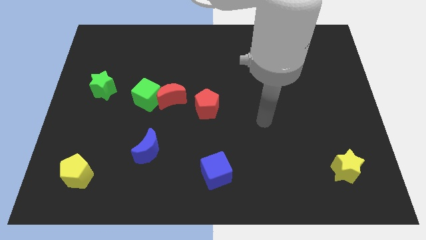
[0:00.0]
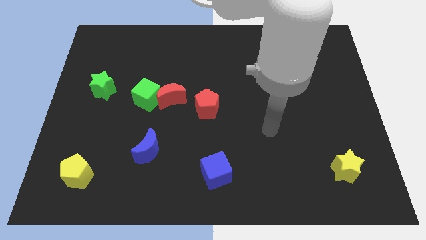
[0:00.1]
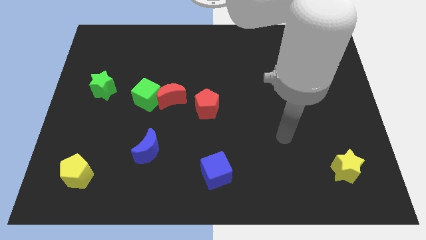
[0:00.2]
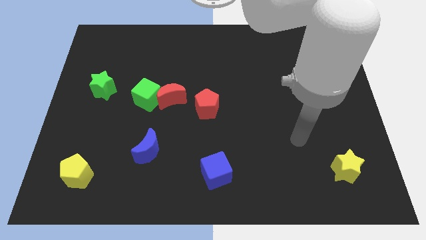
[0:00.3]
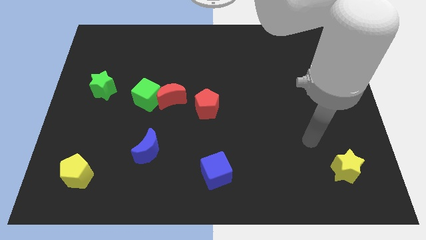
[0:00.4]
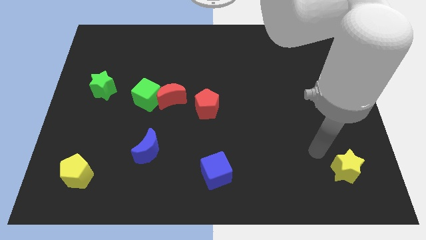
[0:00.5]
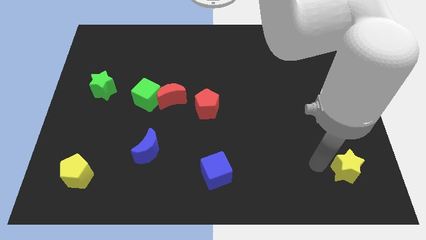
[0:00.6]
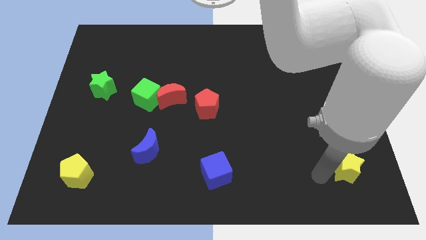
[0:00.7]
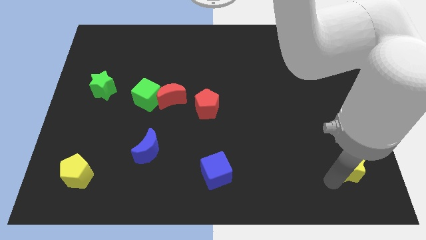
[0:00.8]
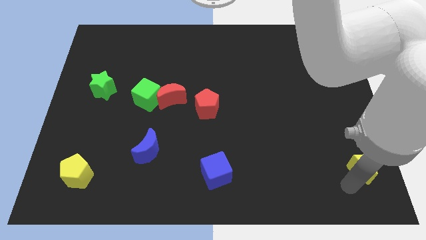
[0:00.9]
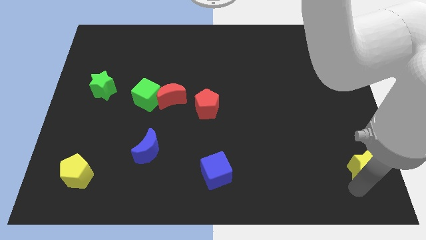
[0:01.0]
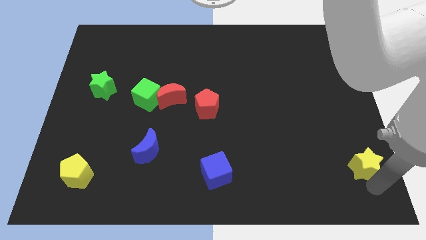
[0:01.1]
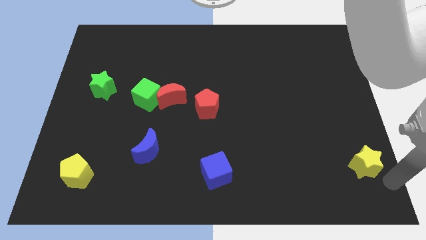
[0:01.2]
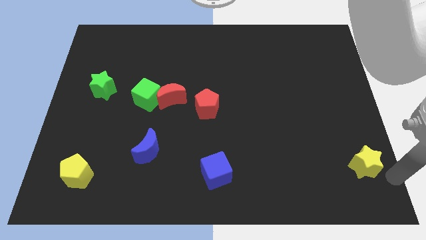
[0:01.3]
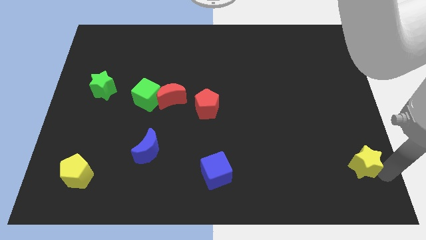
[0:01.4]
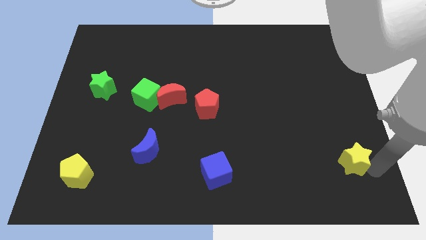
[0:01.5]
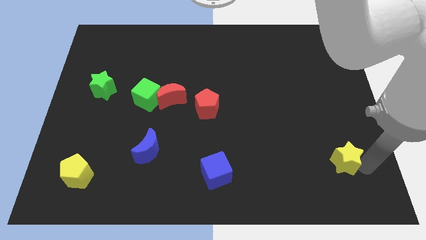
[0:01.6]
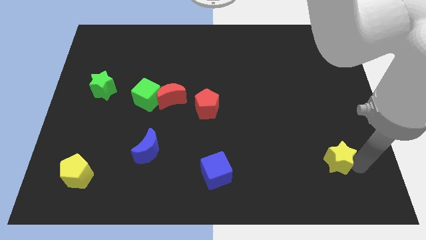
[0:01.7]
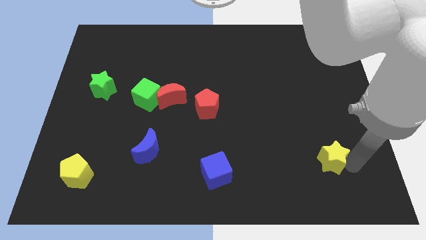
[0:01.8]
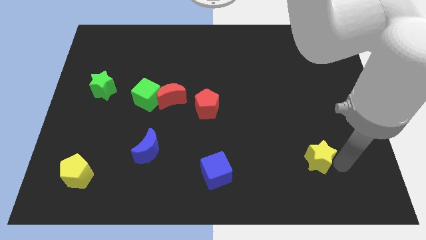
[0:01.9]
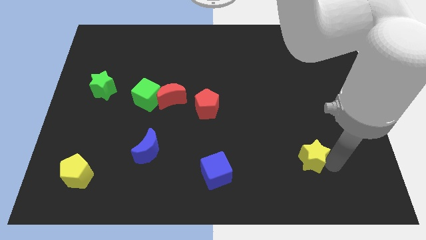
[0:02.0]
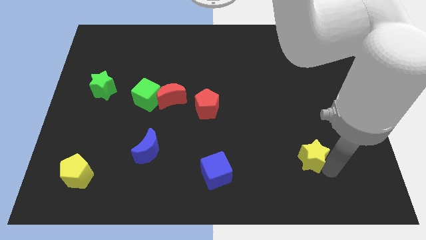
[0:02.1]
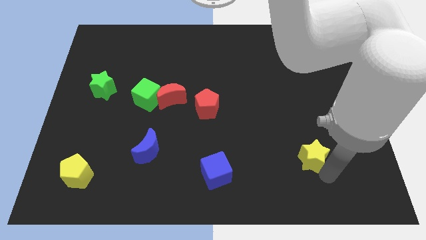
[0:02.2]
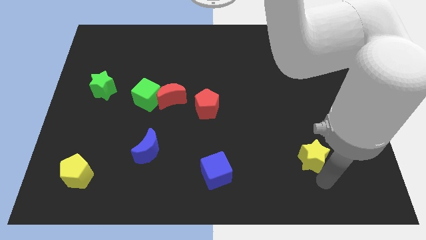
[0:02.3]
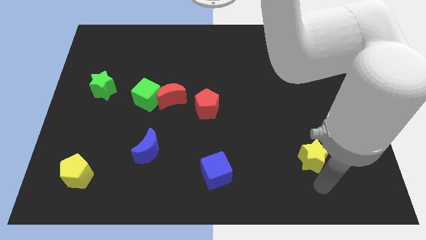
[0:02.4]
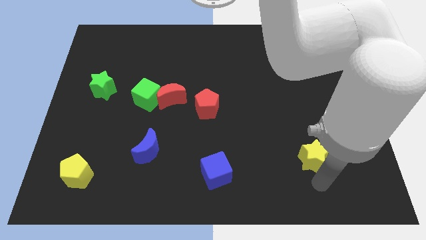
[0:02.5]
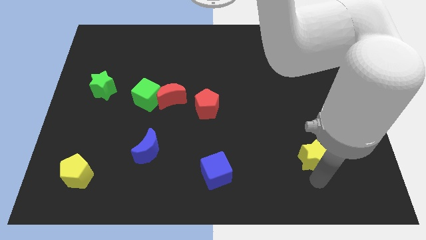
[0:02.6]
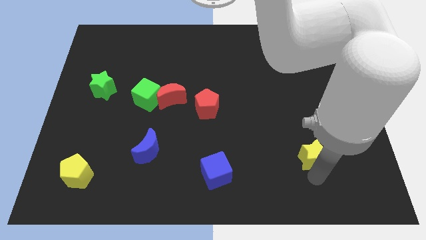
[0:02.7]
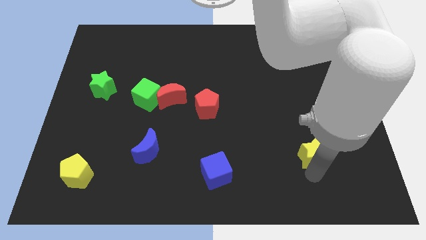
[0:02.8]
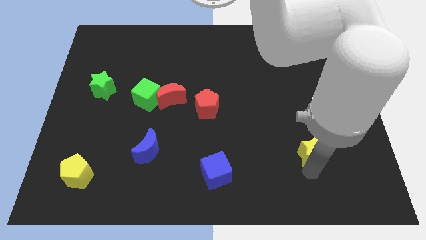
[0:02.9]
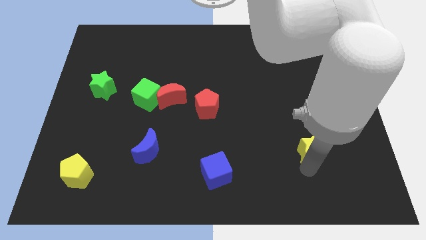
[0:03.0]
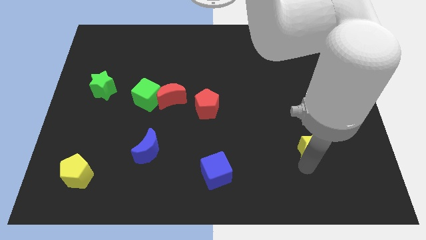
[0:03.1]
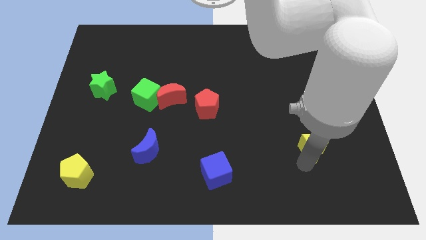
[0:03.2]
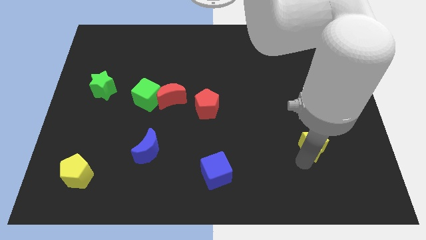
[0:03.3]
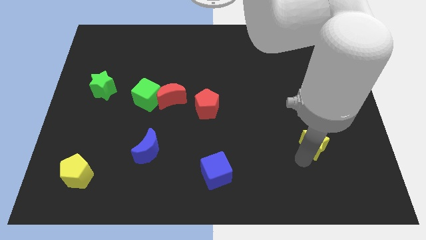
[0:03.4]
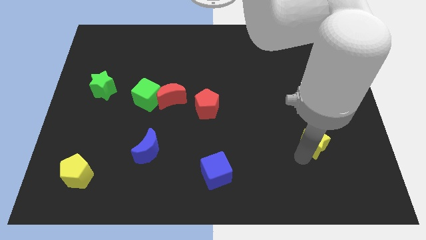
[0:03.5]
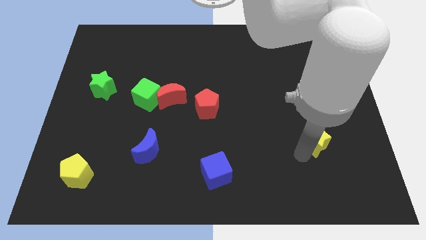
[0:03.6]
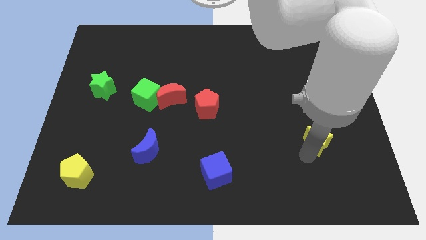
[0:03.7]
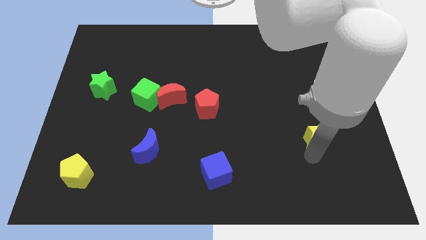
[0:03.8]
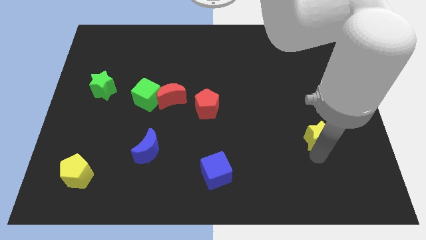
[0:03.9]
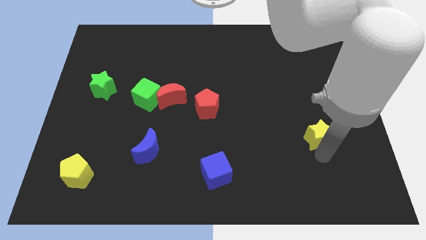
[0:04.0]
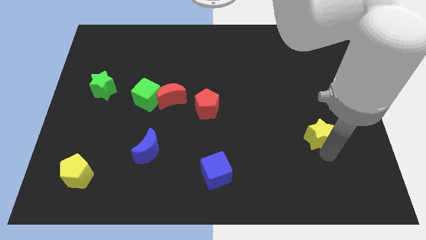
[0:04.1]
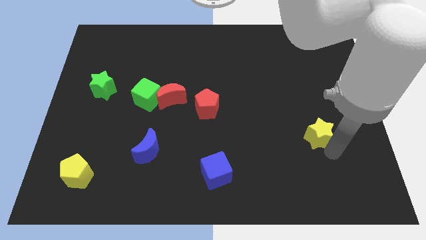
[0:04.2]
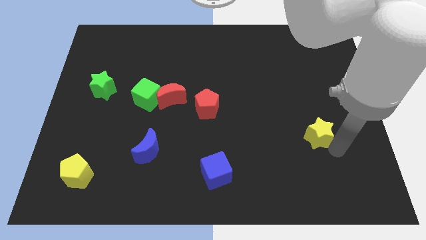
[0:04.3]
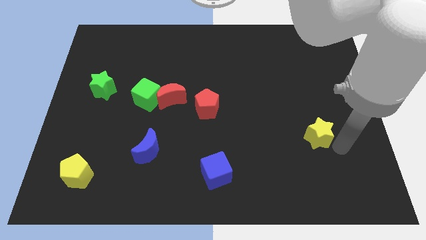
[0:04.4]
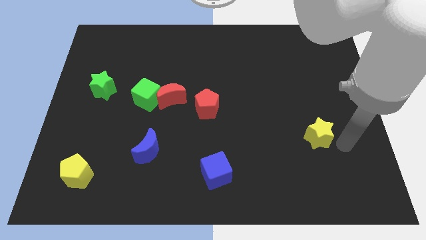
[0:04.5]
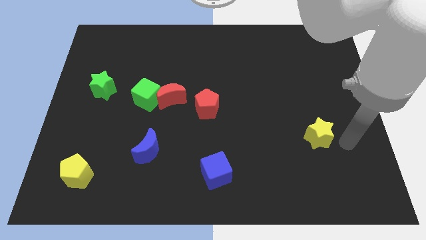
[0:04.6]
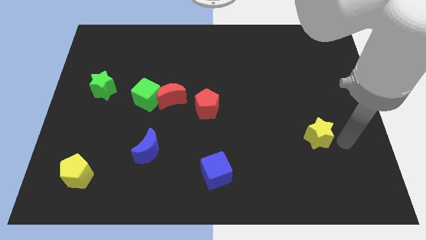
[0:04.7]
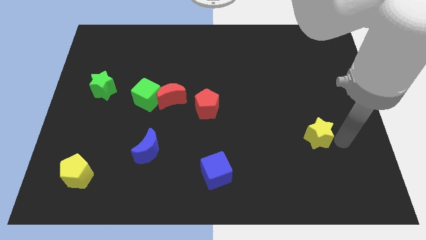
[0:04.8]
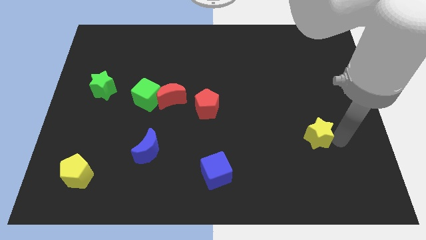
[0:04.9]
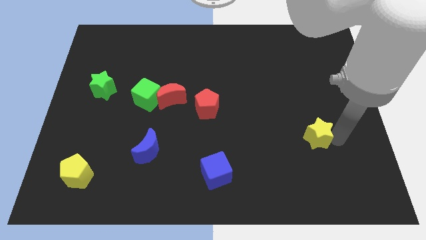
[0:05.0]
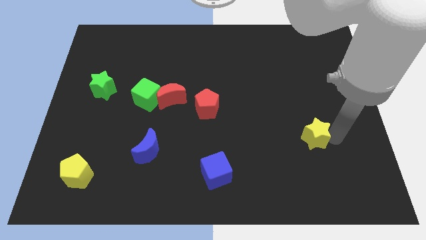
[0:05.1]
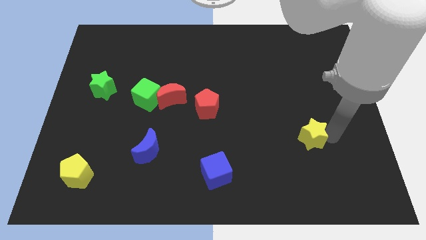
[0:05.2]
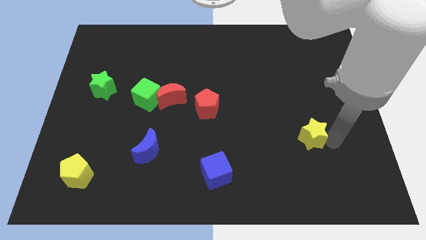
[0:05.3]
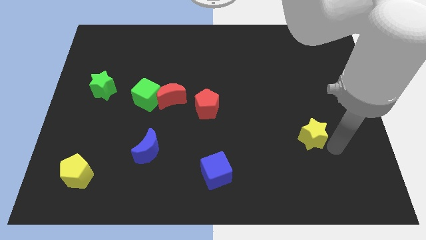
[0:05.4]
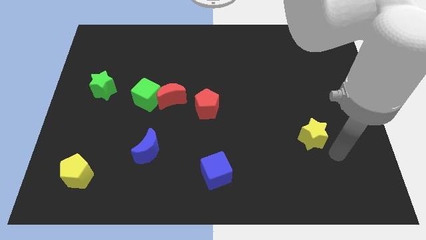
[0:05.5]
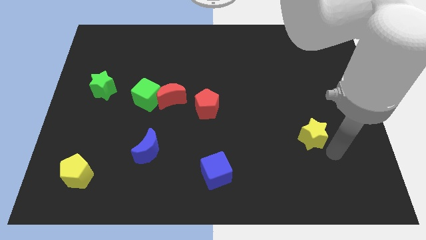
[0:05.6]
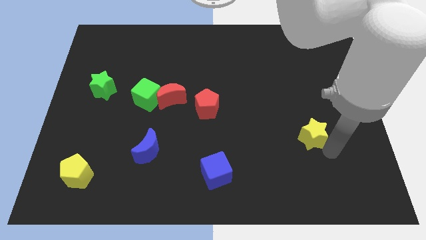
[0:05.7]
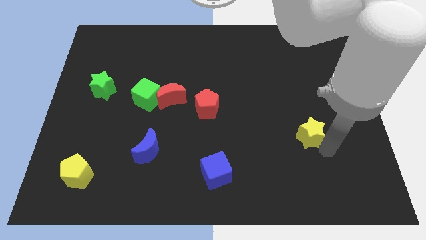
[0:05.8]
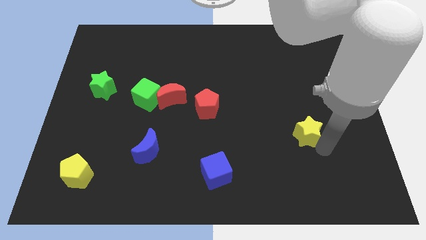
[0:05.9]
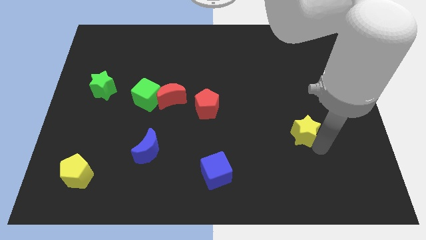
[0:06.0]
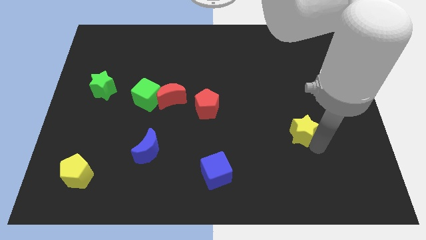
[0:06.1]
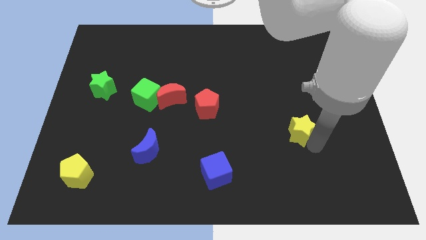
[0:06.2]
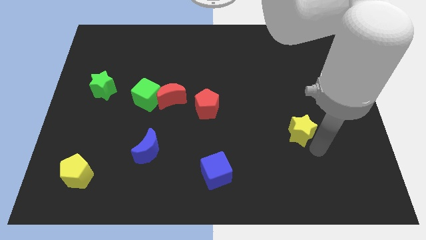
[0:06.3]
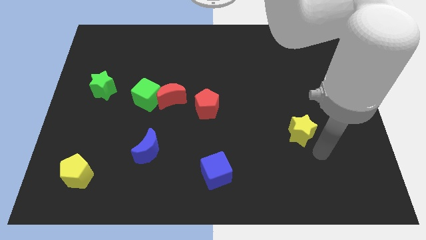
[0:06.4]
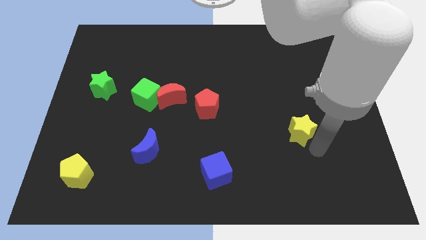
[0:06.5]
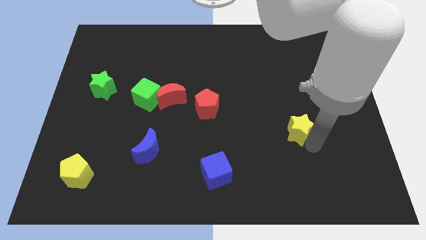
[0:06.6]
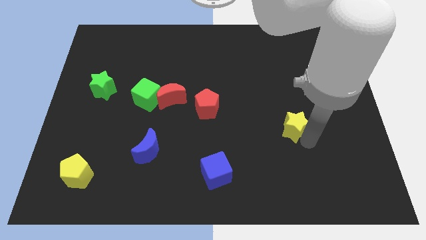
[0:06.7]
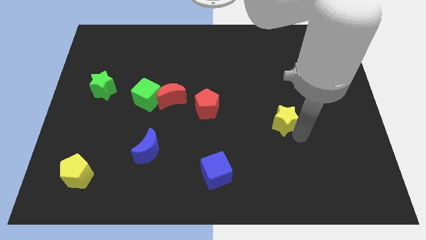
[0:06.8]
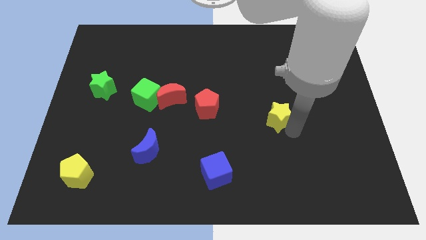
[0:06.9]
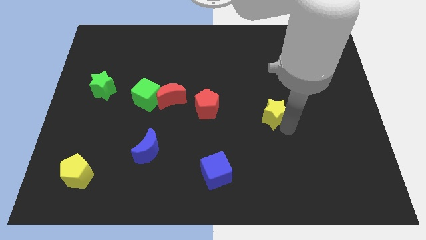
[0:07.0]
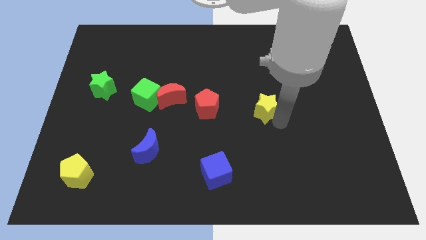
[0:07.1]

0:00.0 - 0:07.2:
move the yellow star up and then to the left
